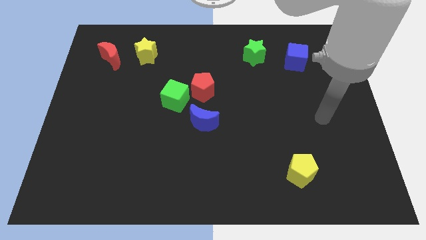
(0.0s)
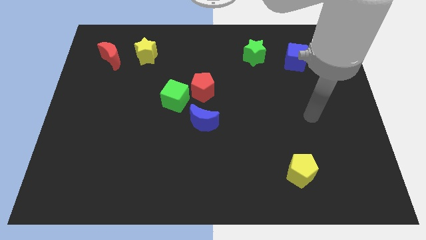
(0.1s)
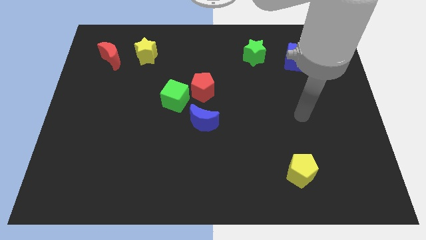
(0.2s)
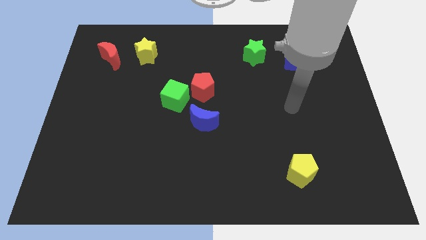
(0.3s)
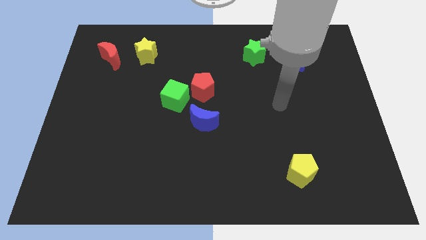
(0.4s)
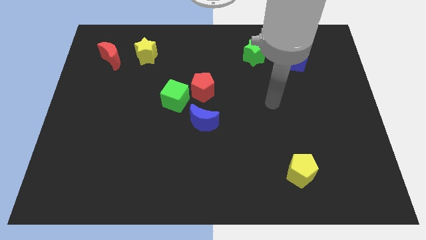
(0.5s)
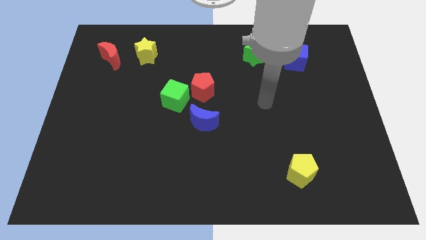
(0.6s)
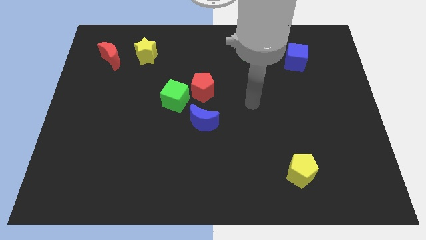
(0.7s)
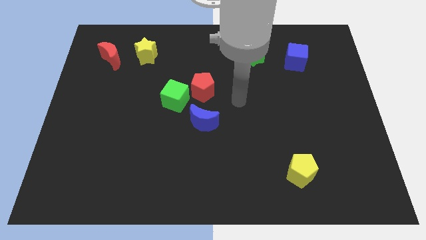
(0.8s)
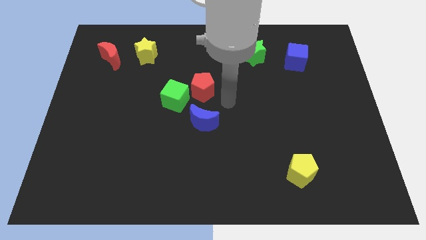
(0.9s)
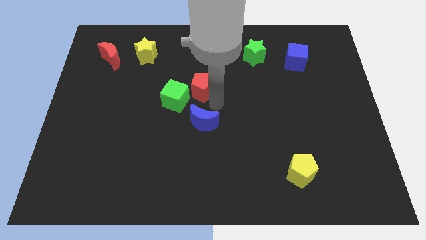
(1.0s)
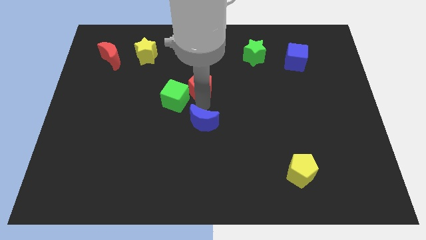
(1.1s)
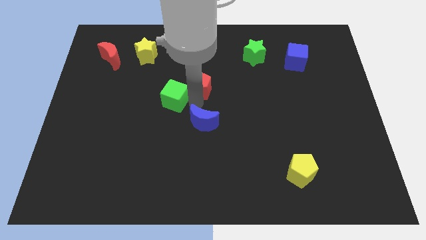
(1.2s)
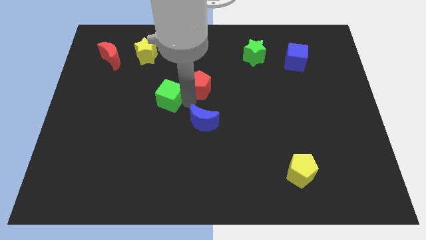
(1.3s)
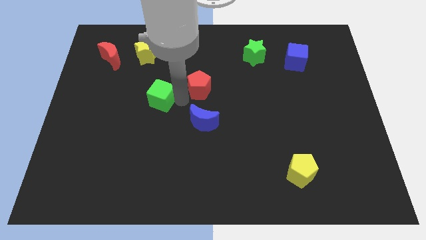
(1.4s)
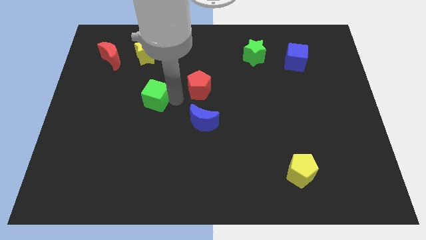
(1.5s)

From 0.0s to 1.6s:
move the green cube away from the red pentagon and blue moon

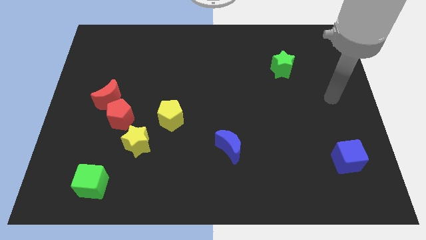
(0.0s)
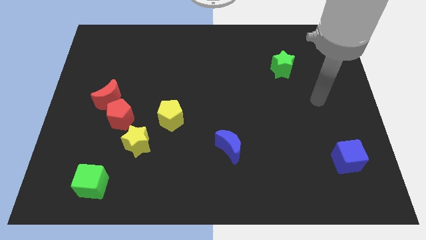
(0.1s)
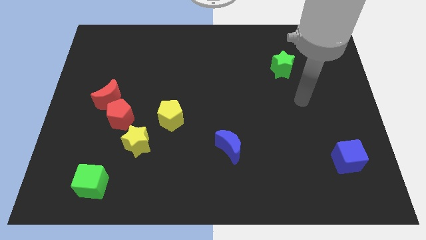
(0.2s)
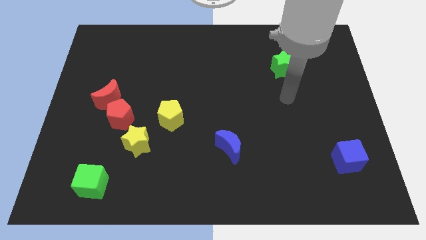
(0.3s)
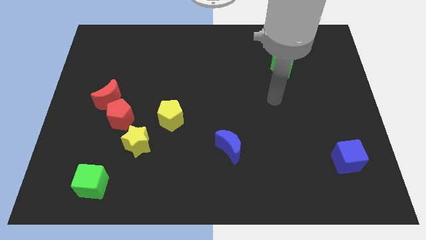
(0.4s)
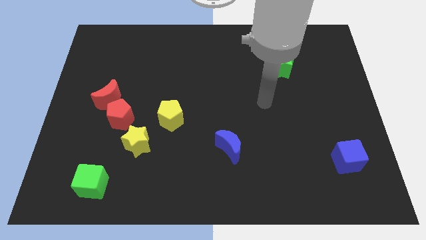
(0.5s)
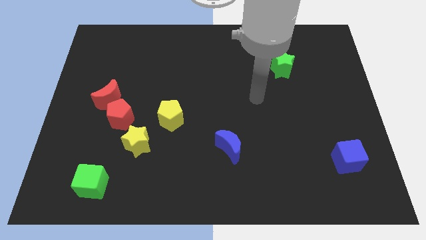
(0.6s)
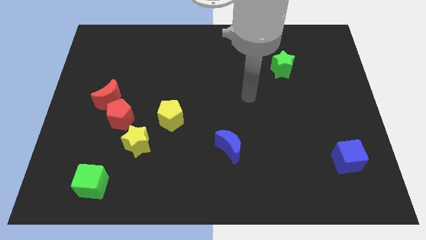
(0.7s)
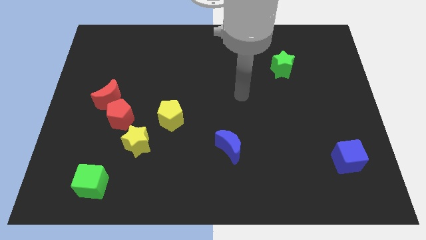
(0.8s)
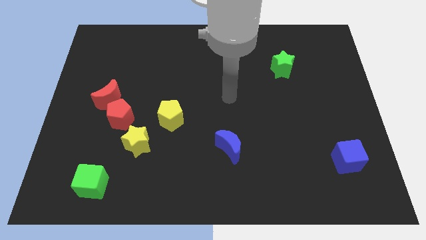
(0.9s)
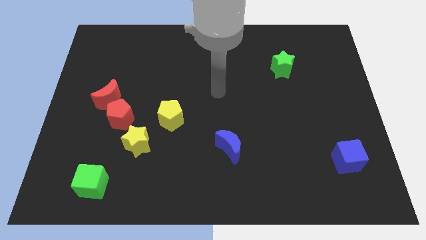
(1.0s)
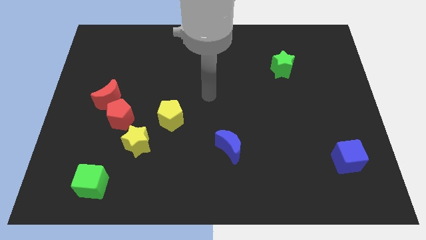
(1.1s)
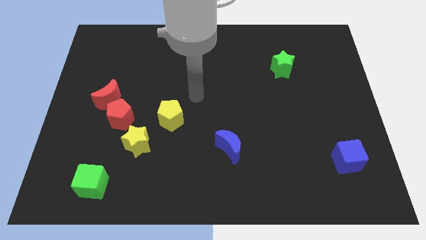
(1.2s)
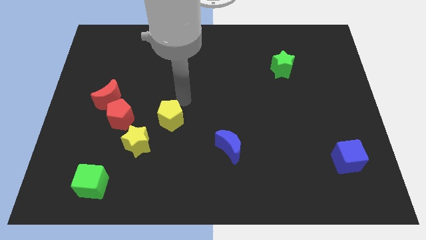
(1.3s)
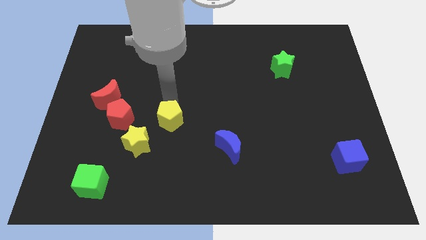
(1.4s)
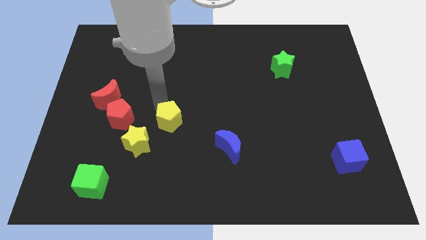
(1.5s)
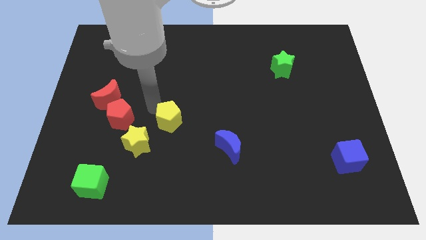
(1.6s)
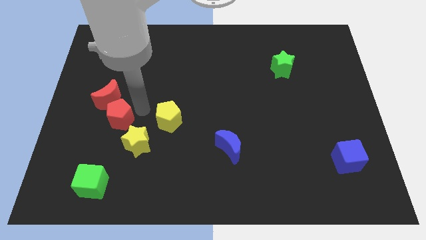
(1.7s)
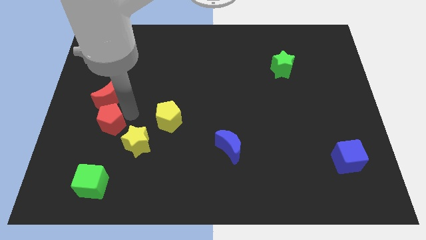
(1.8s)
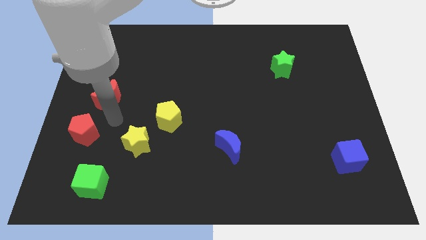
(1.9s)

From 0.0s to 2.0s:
pull the red moon apart from the red pentagon

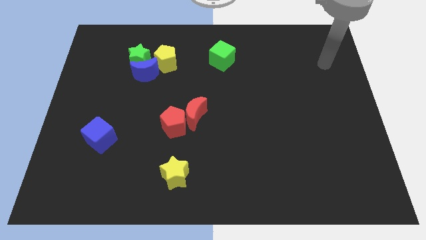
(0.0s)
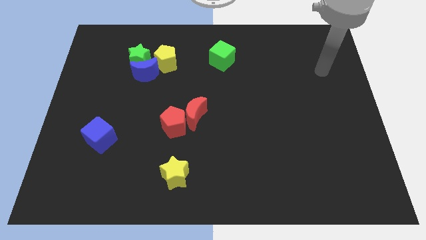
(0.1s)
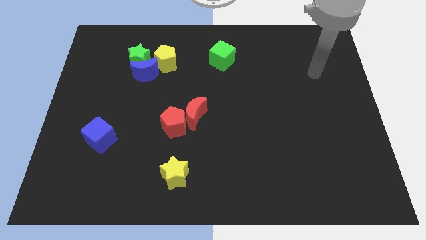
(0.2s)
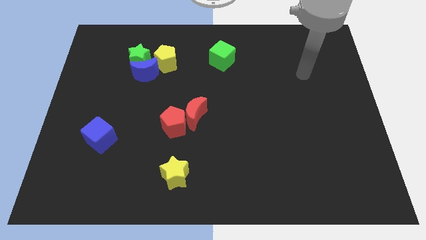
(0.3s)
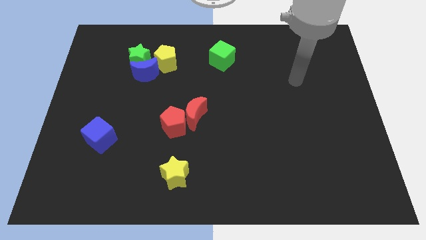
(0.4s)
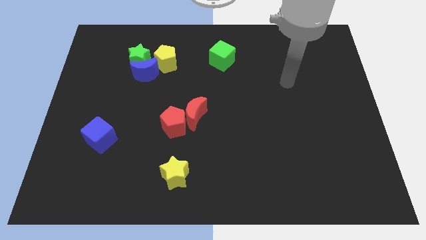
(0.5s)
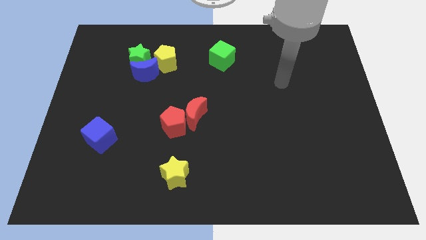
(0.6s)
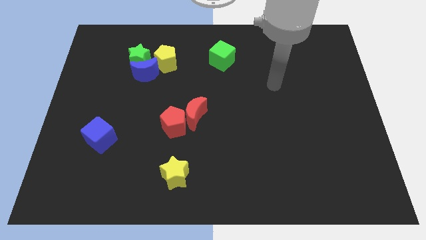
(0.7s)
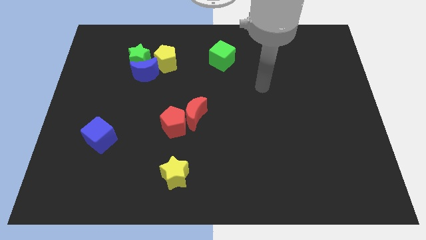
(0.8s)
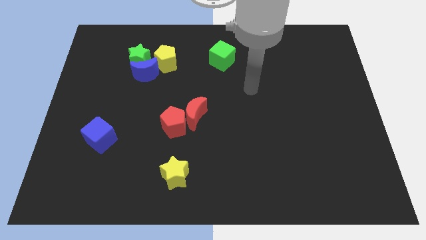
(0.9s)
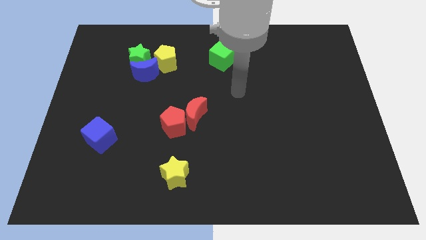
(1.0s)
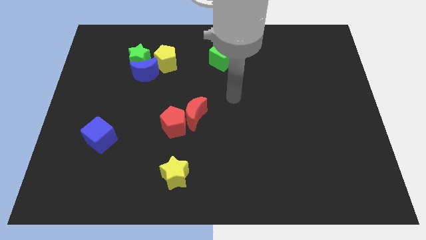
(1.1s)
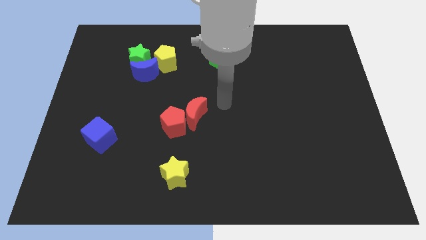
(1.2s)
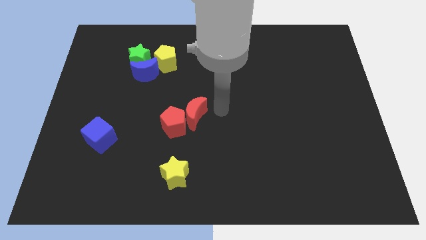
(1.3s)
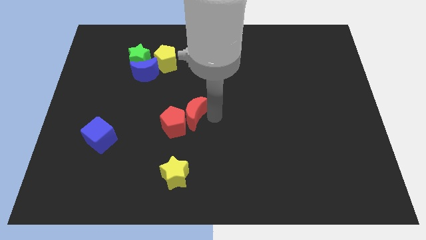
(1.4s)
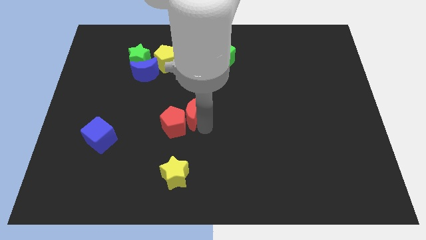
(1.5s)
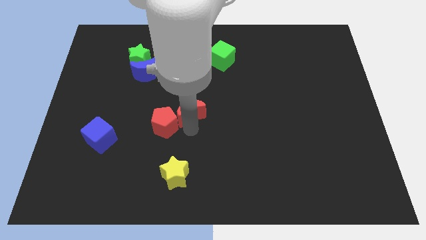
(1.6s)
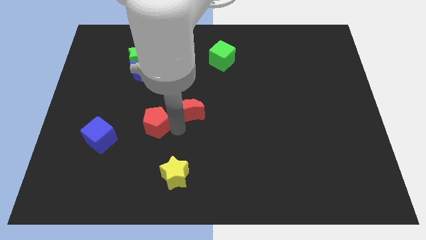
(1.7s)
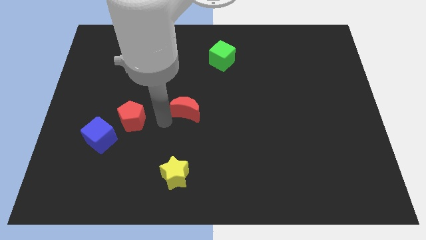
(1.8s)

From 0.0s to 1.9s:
move the red moon away from the red pentagon

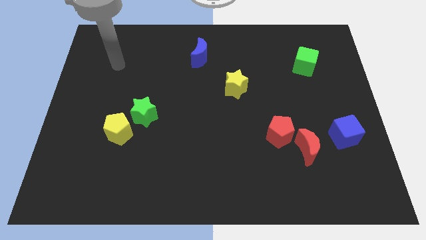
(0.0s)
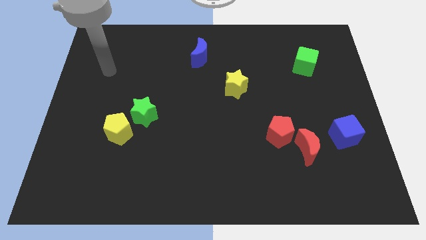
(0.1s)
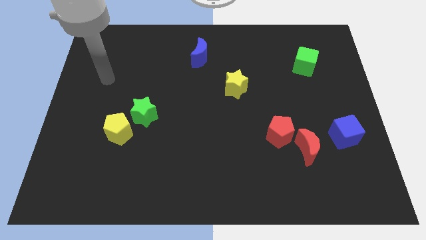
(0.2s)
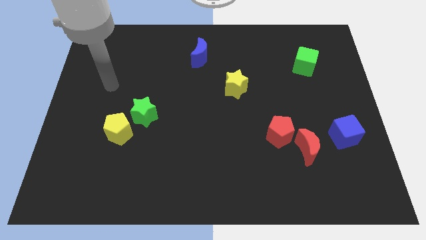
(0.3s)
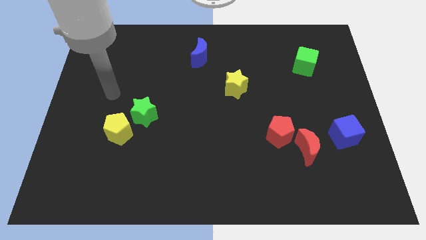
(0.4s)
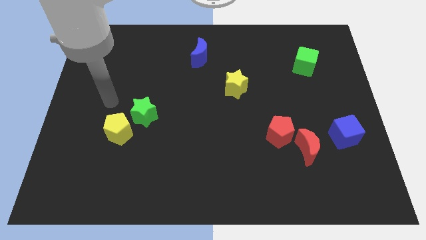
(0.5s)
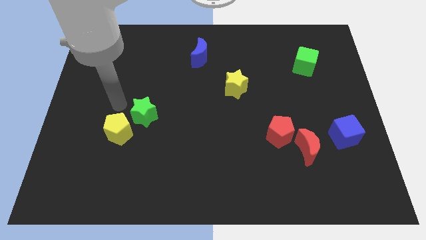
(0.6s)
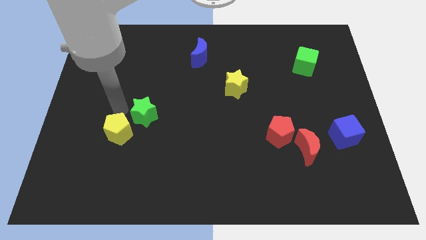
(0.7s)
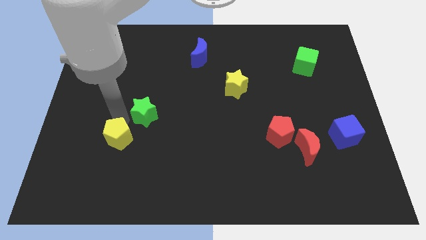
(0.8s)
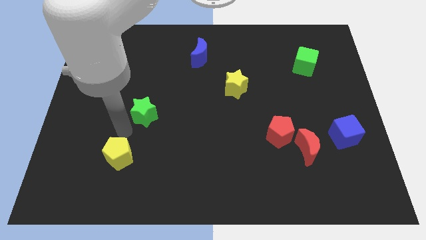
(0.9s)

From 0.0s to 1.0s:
move the green star away from the yellow pentagon

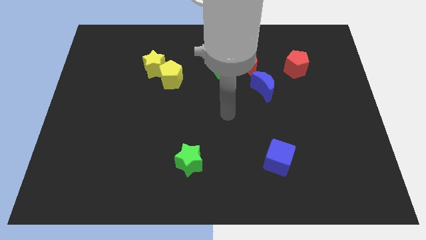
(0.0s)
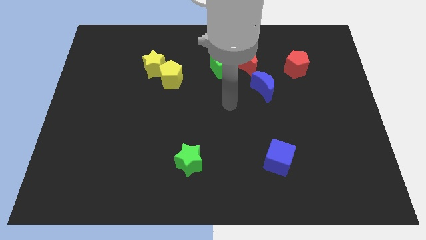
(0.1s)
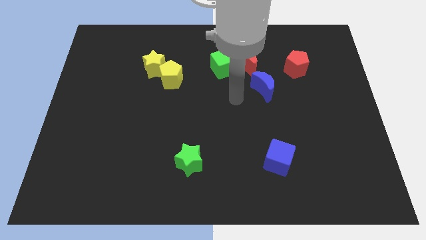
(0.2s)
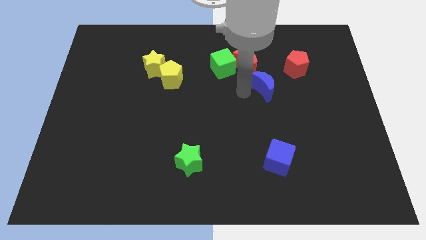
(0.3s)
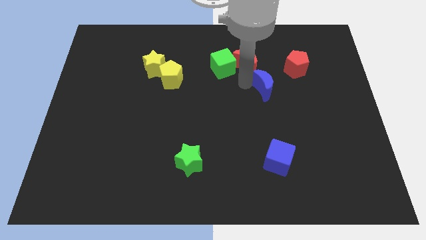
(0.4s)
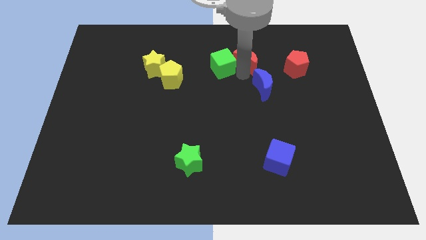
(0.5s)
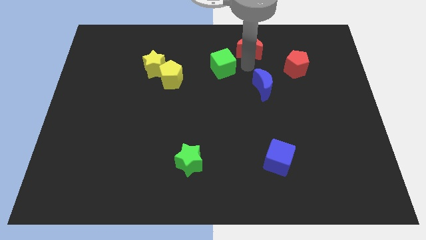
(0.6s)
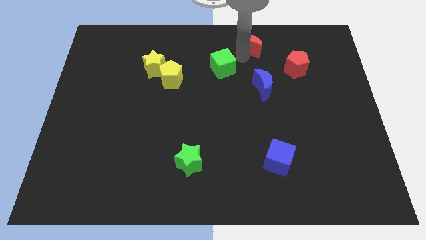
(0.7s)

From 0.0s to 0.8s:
pull the green cube apart from the red moon

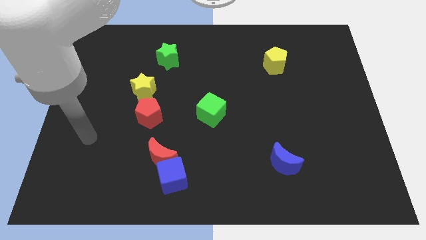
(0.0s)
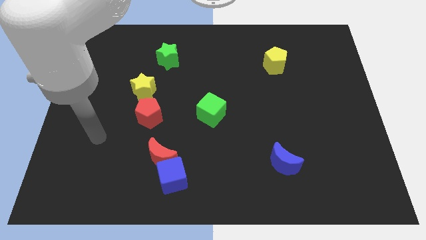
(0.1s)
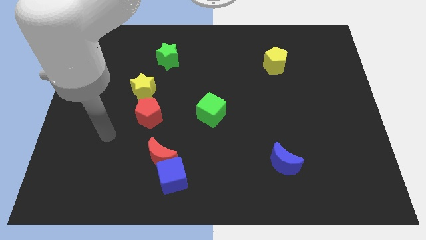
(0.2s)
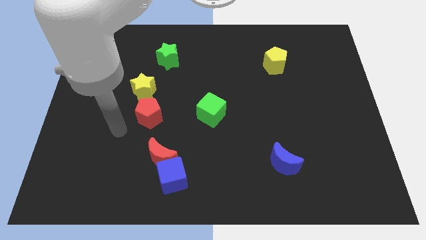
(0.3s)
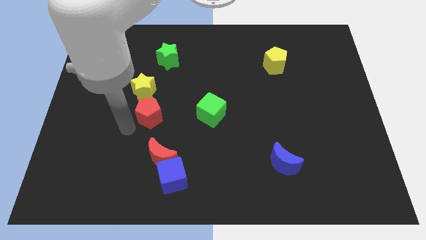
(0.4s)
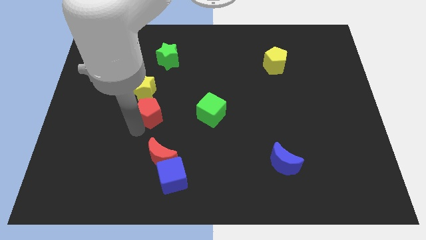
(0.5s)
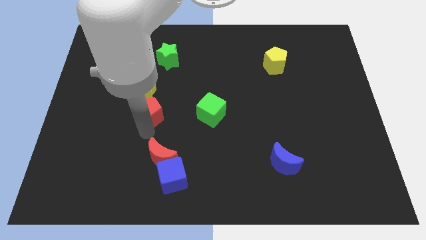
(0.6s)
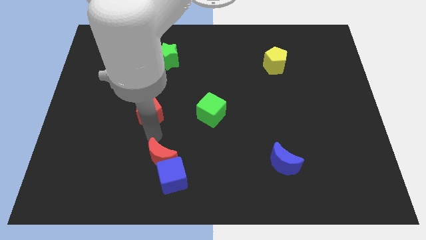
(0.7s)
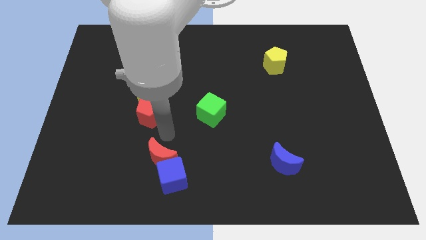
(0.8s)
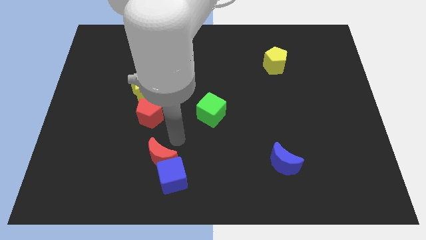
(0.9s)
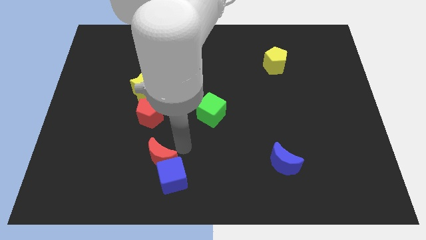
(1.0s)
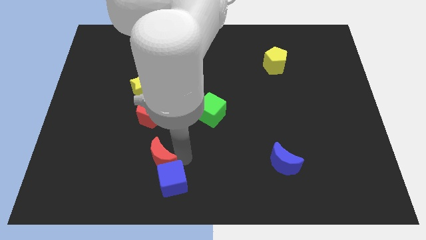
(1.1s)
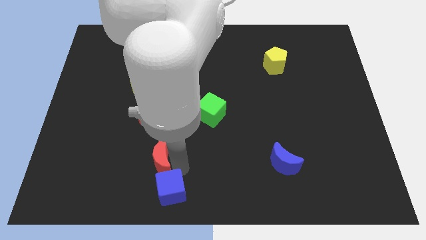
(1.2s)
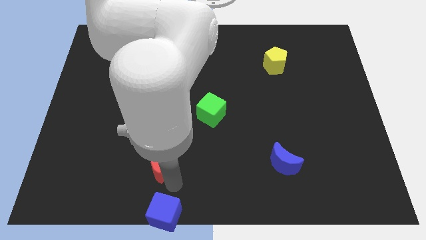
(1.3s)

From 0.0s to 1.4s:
pull the red moon apart from the blue cube

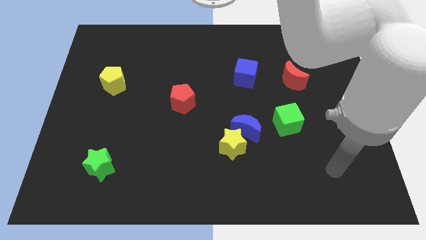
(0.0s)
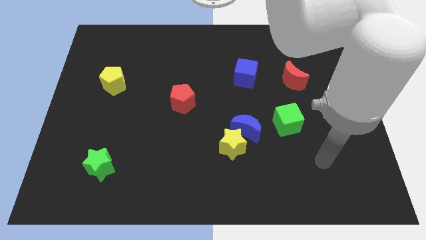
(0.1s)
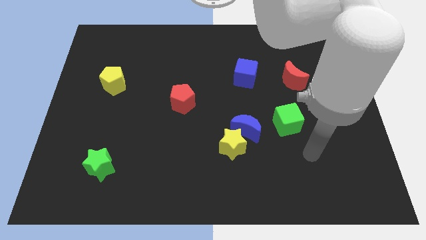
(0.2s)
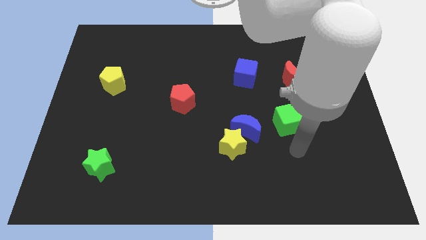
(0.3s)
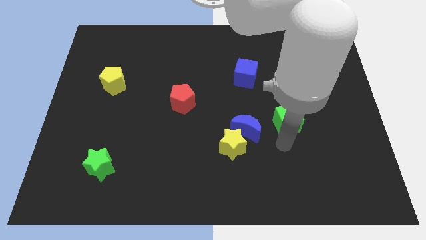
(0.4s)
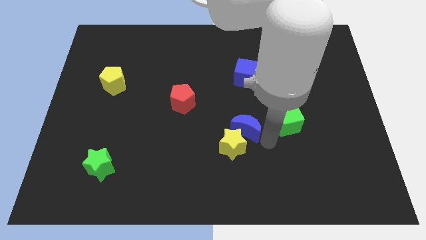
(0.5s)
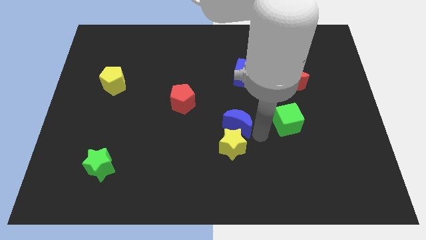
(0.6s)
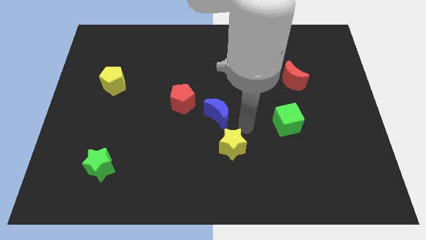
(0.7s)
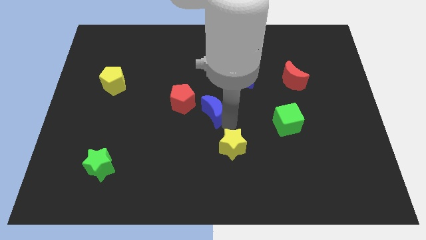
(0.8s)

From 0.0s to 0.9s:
move the yellow star away from the blue moon
